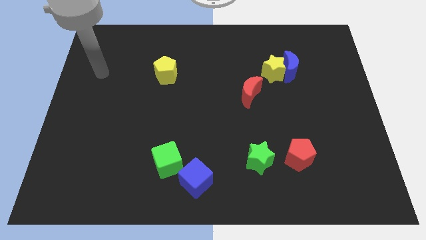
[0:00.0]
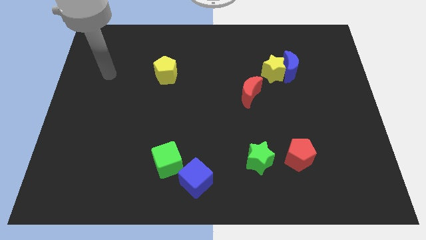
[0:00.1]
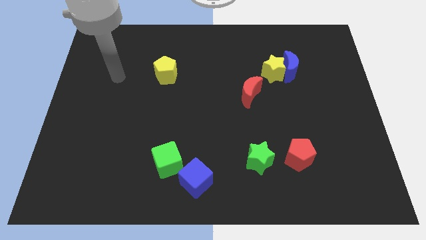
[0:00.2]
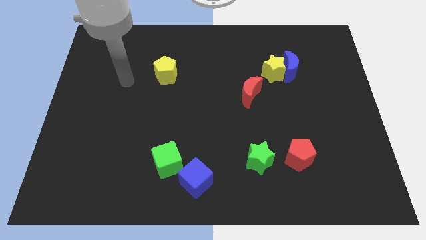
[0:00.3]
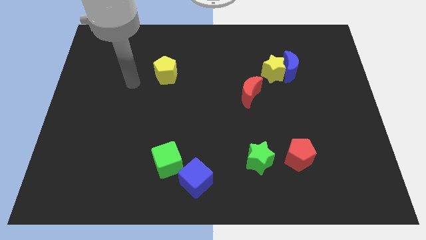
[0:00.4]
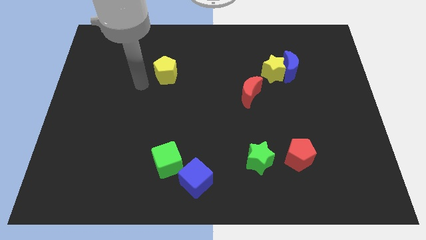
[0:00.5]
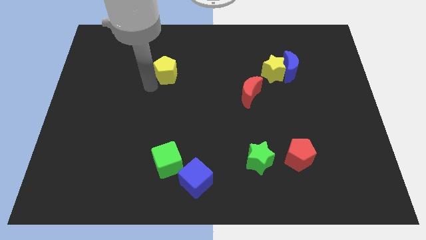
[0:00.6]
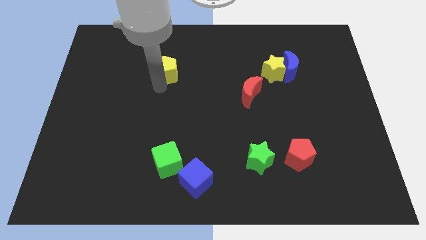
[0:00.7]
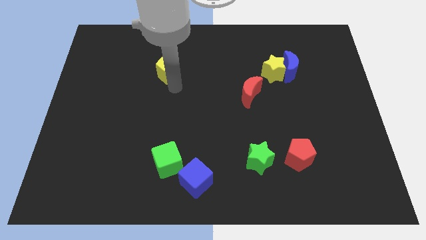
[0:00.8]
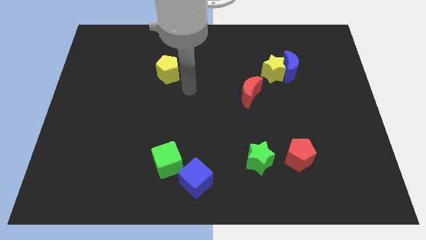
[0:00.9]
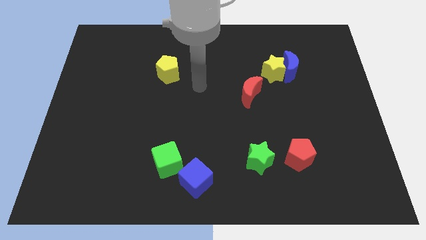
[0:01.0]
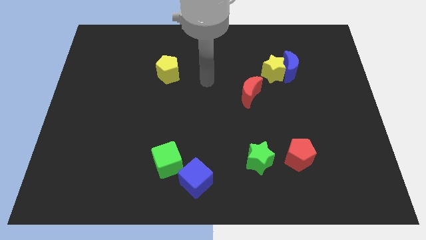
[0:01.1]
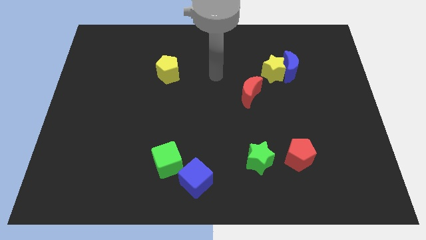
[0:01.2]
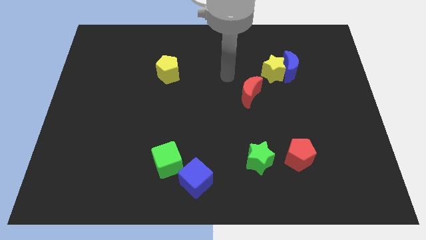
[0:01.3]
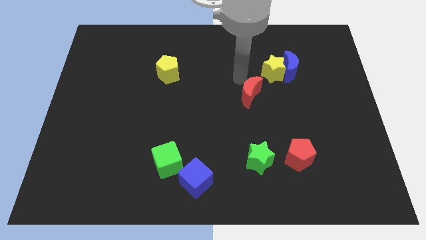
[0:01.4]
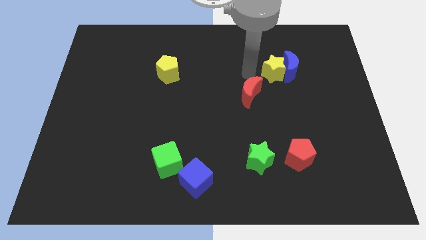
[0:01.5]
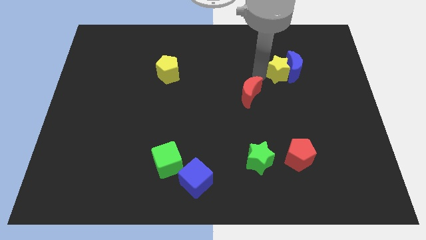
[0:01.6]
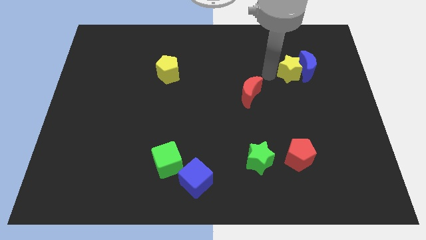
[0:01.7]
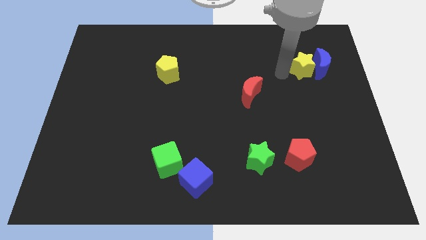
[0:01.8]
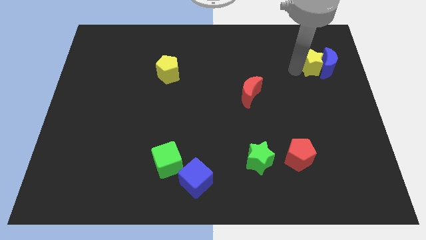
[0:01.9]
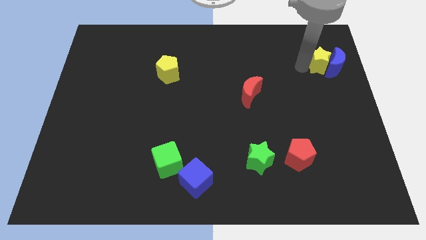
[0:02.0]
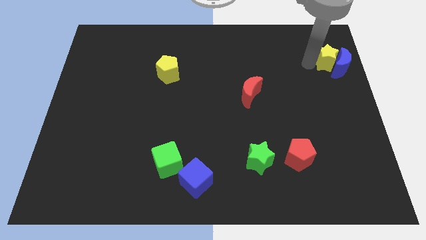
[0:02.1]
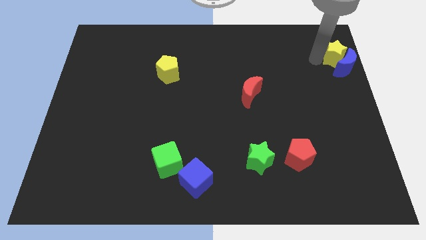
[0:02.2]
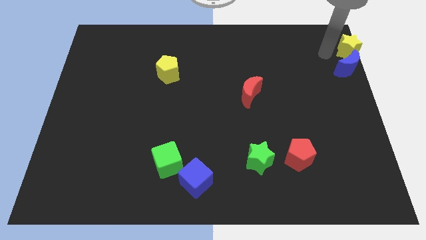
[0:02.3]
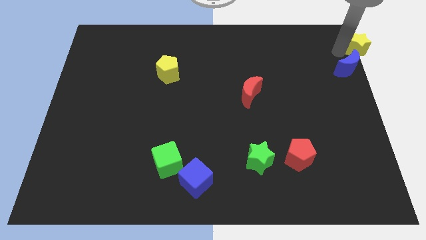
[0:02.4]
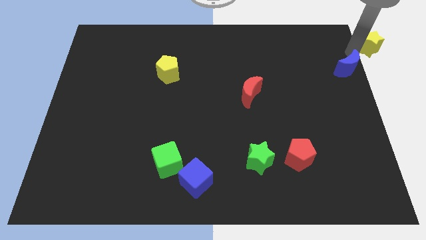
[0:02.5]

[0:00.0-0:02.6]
move the blue moon away from the yellow star

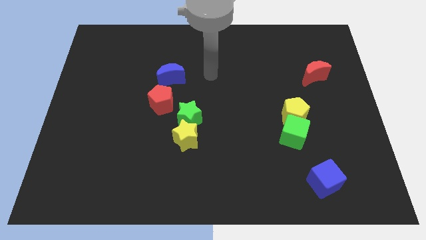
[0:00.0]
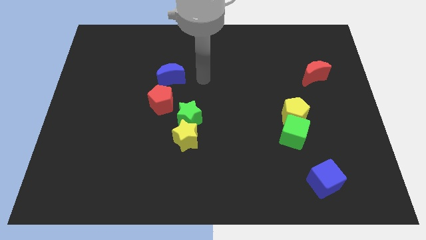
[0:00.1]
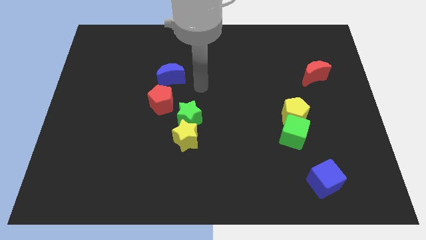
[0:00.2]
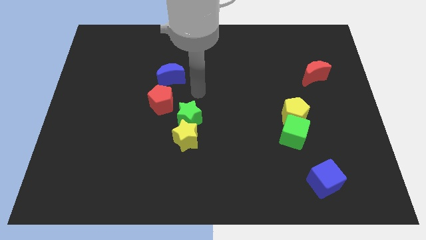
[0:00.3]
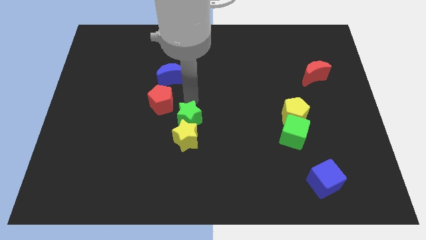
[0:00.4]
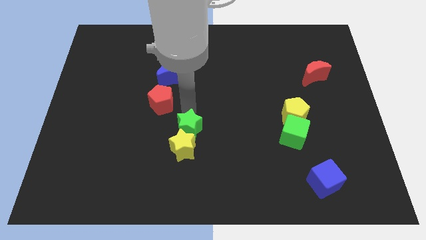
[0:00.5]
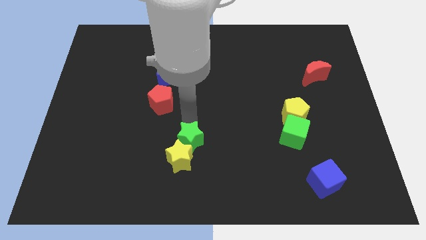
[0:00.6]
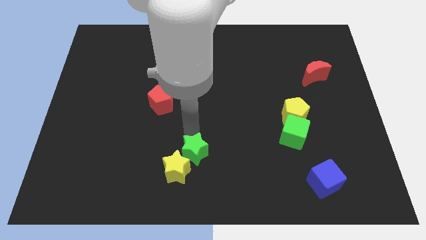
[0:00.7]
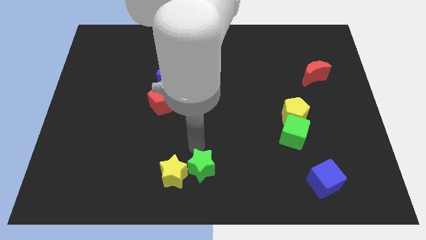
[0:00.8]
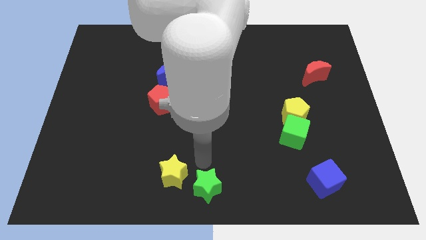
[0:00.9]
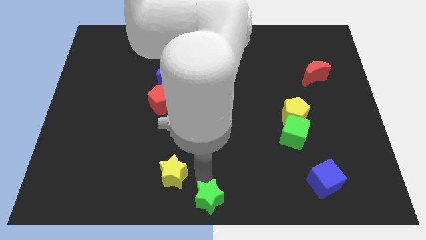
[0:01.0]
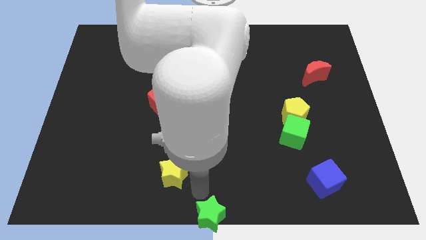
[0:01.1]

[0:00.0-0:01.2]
move the yellow star away from the green star

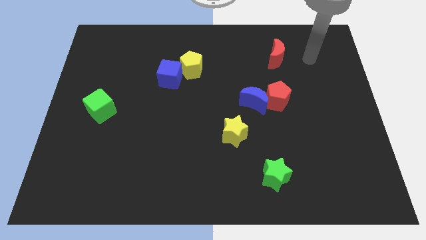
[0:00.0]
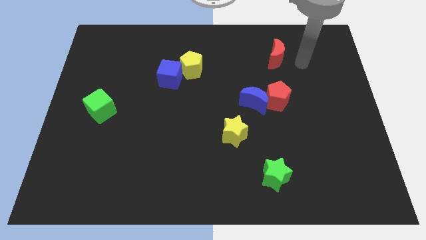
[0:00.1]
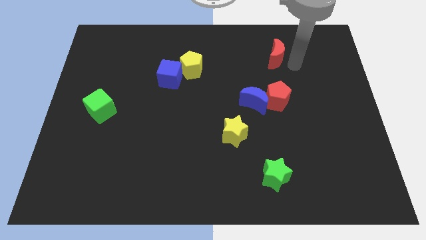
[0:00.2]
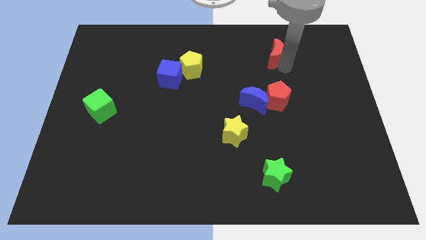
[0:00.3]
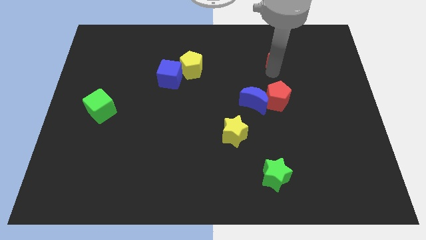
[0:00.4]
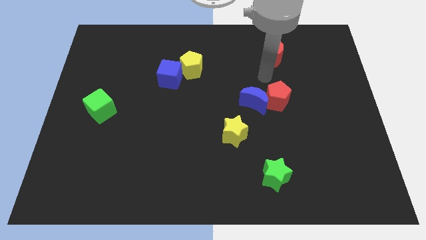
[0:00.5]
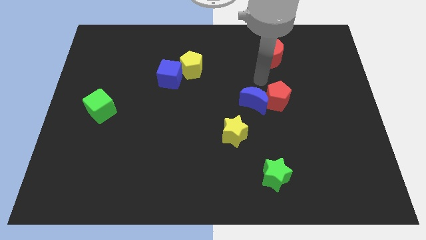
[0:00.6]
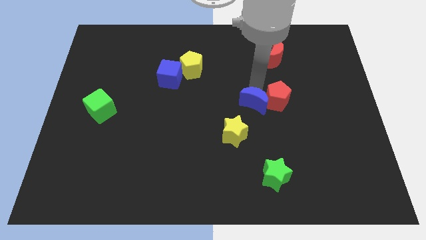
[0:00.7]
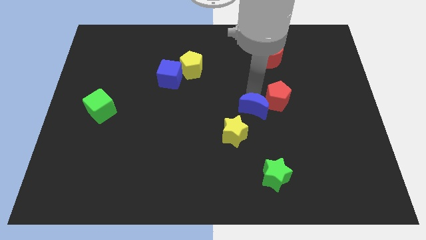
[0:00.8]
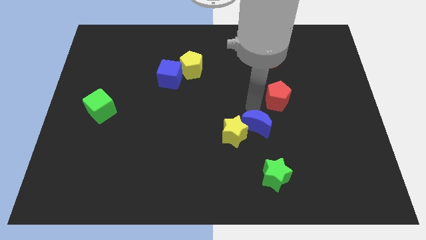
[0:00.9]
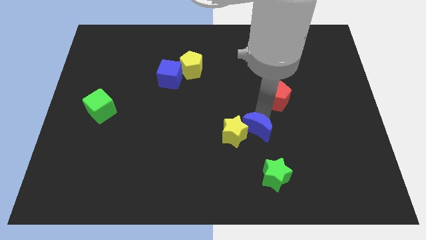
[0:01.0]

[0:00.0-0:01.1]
pull the red pentagon apart from the blue moon

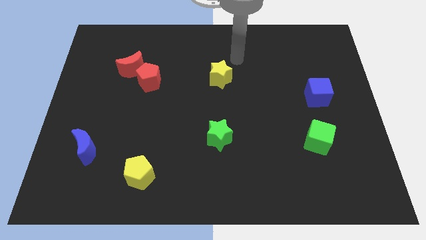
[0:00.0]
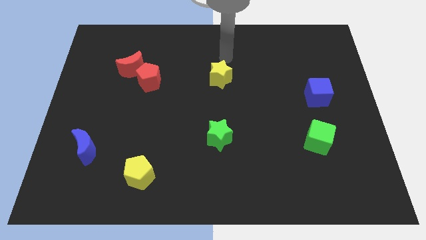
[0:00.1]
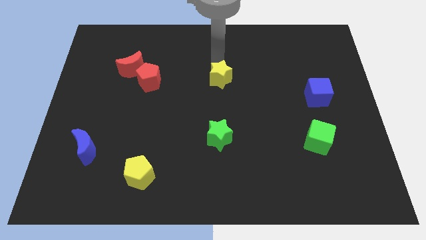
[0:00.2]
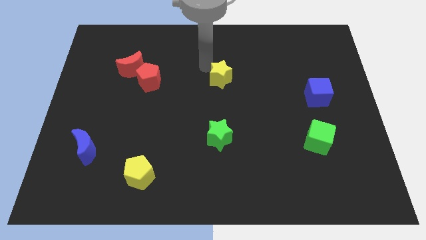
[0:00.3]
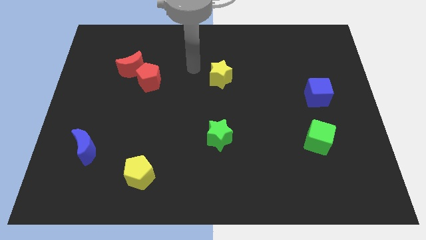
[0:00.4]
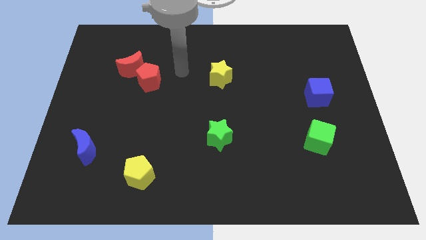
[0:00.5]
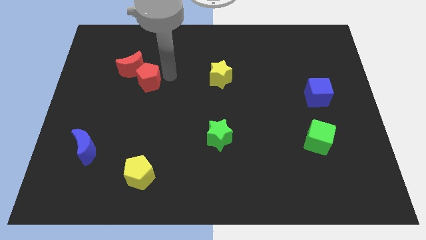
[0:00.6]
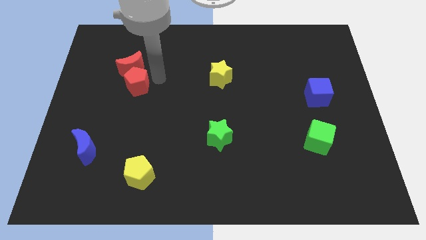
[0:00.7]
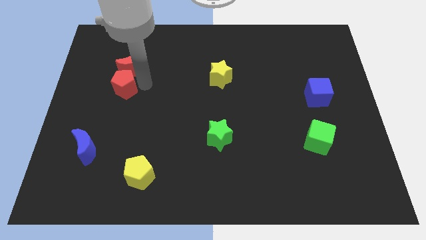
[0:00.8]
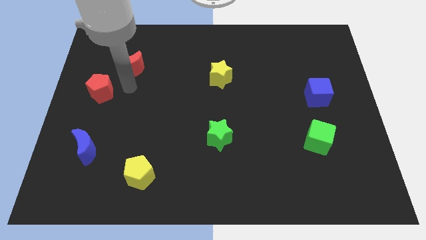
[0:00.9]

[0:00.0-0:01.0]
pull the red moon apart from the red pentagon

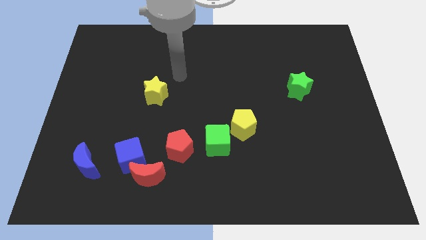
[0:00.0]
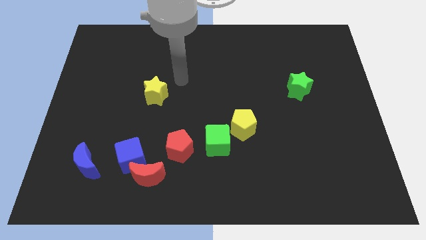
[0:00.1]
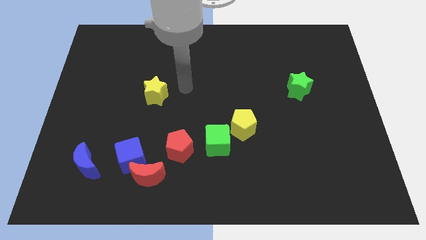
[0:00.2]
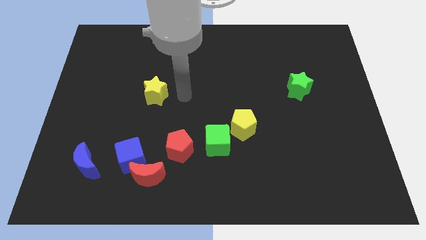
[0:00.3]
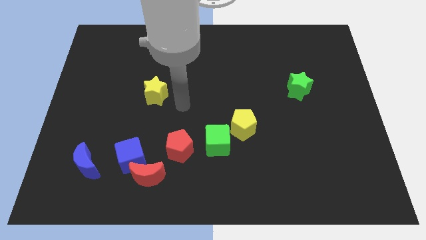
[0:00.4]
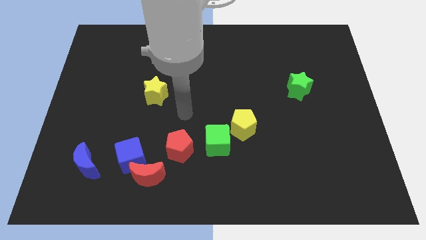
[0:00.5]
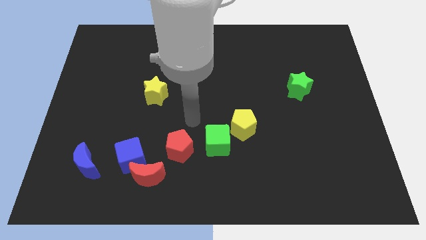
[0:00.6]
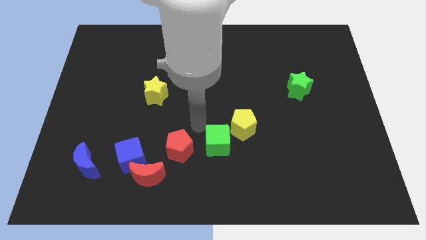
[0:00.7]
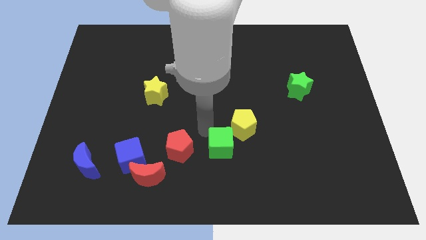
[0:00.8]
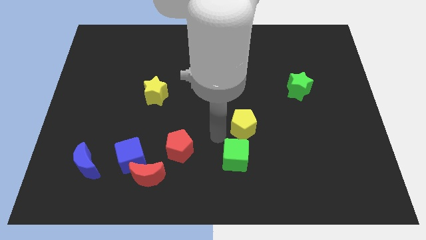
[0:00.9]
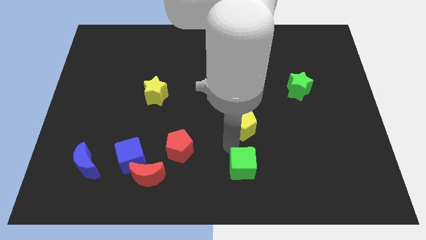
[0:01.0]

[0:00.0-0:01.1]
pull the yellow pentagon apart from the green cube

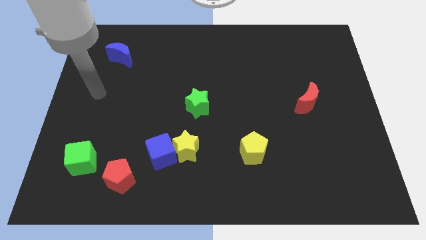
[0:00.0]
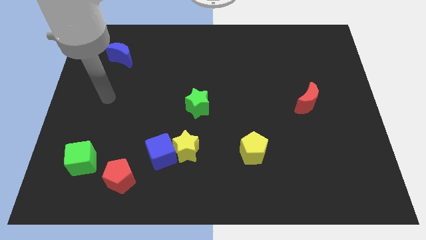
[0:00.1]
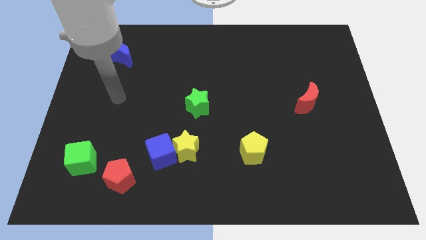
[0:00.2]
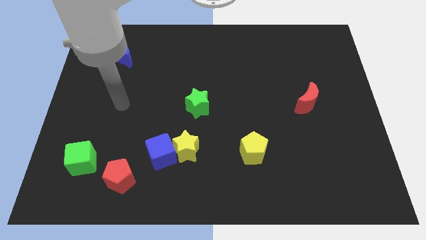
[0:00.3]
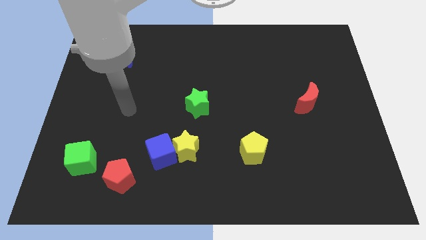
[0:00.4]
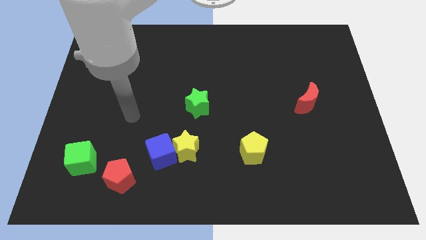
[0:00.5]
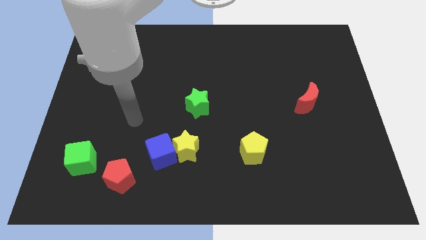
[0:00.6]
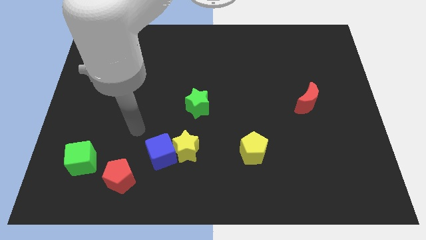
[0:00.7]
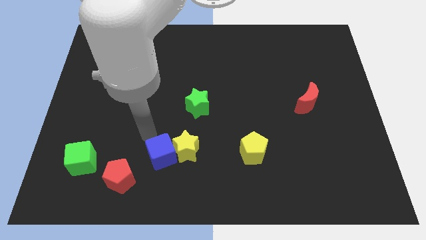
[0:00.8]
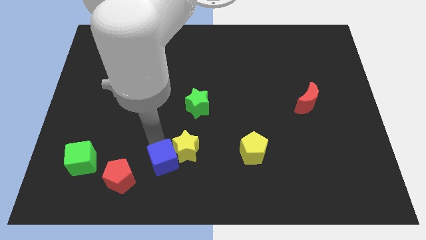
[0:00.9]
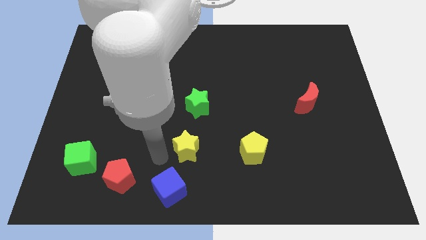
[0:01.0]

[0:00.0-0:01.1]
pull the yellow star apart from the blue cube

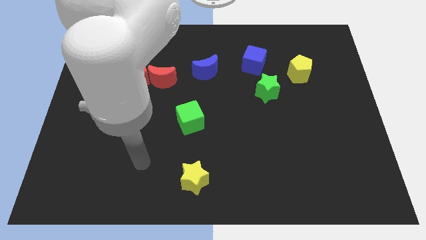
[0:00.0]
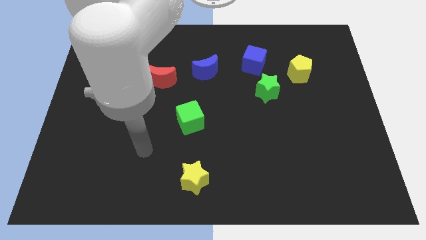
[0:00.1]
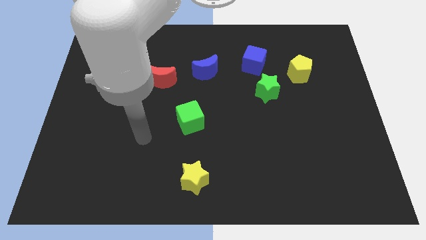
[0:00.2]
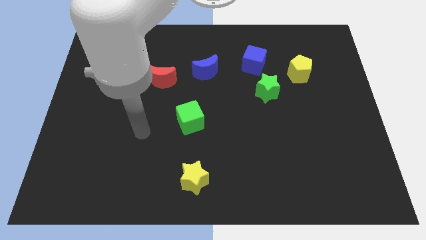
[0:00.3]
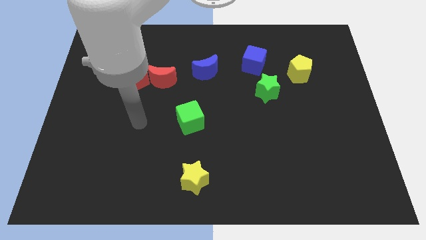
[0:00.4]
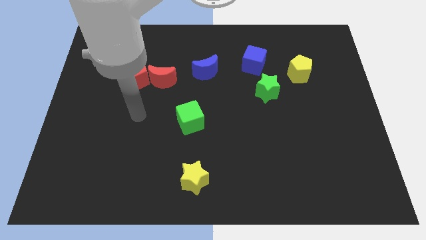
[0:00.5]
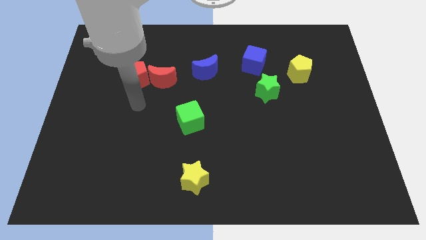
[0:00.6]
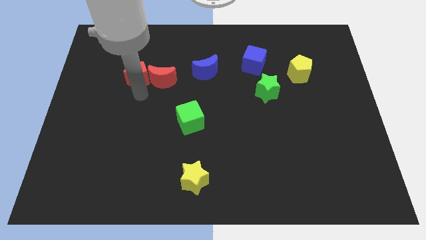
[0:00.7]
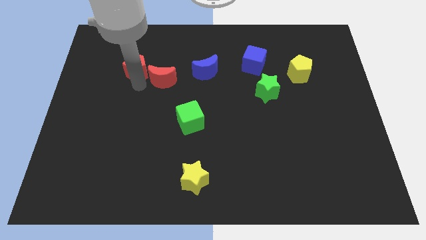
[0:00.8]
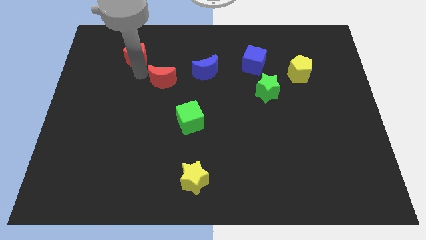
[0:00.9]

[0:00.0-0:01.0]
move the red moon away from the red pentagon

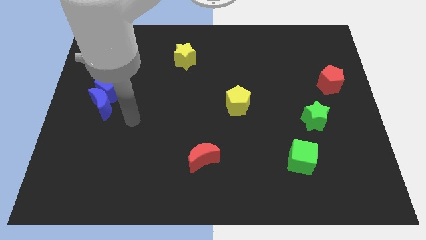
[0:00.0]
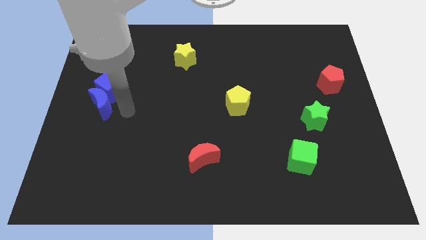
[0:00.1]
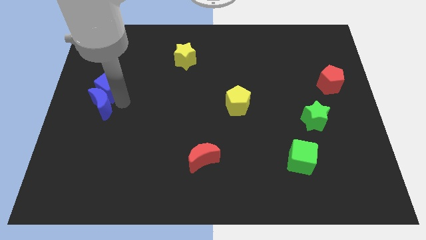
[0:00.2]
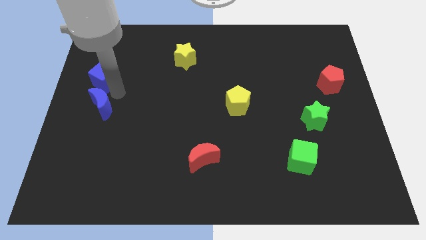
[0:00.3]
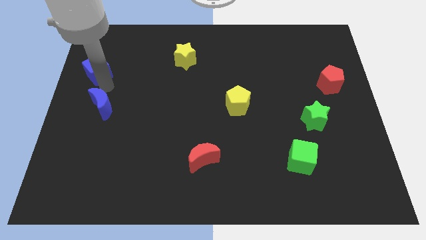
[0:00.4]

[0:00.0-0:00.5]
move the blue moon away from the blue cube
